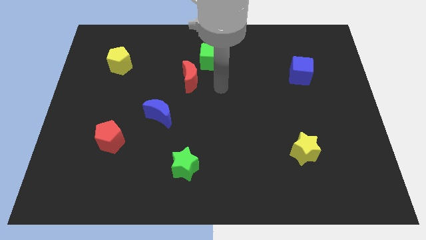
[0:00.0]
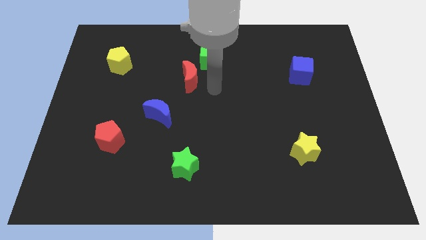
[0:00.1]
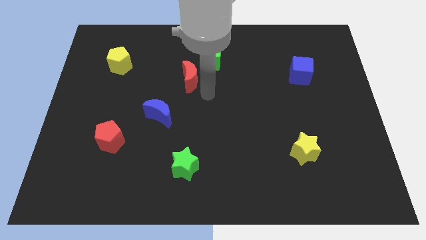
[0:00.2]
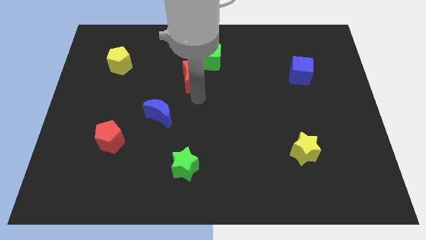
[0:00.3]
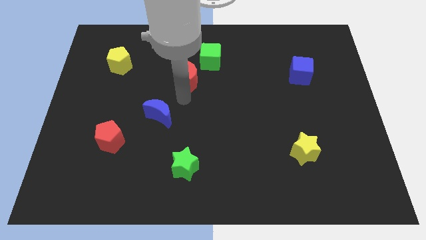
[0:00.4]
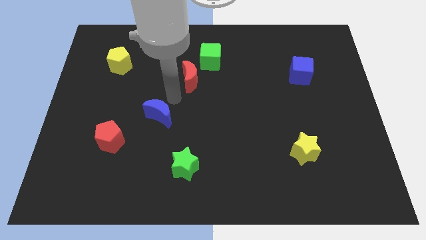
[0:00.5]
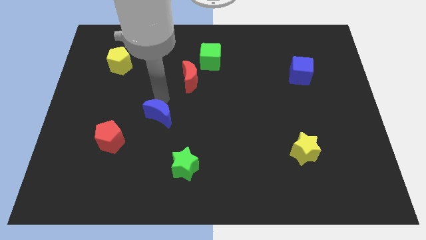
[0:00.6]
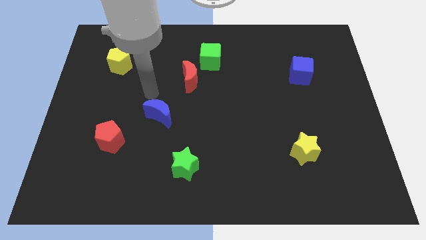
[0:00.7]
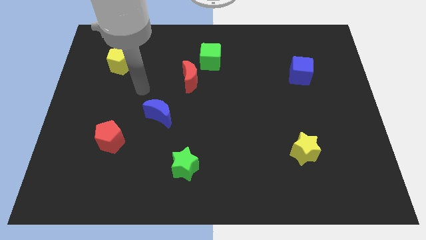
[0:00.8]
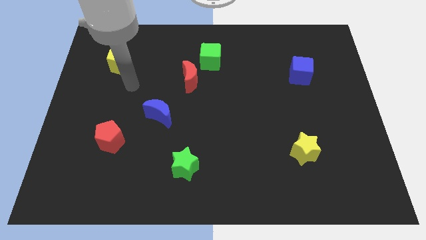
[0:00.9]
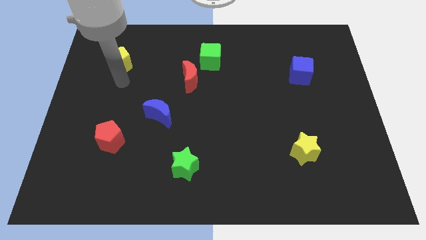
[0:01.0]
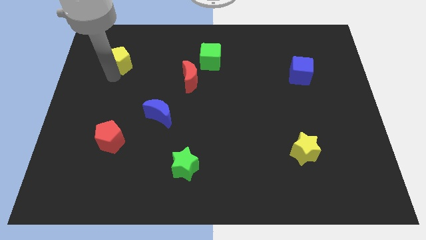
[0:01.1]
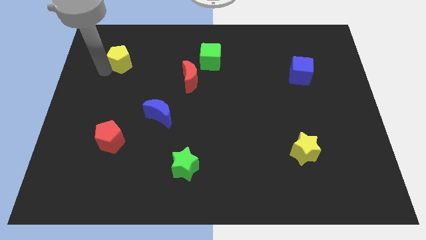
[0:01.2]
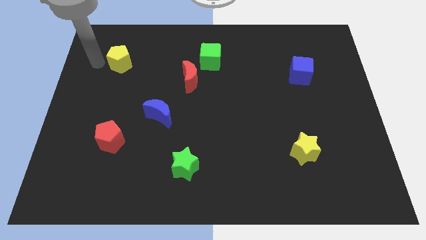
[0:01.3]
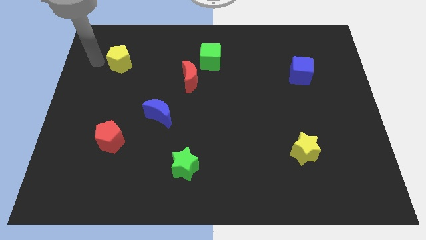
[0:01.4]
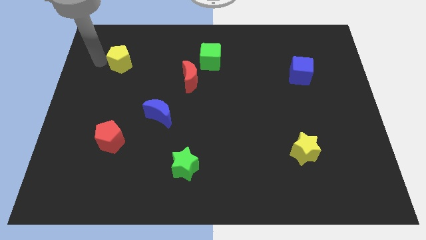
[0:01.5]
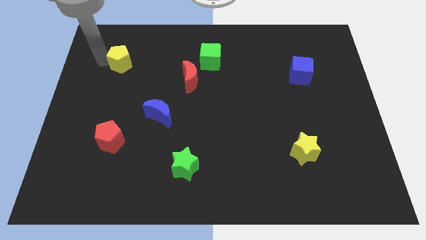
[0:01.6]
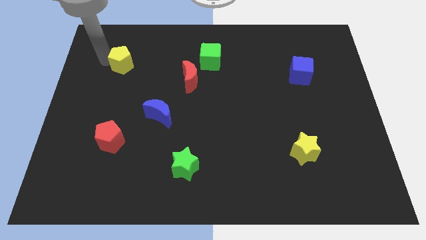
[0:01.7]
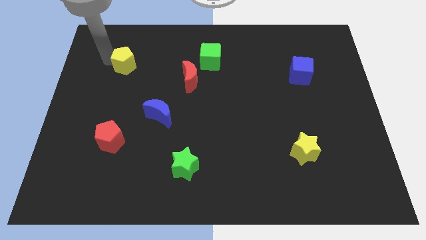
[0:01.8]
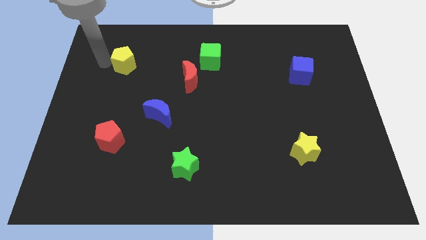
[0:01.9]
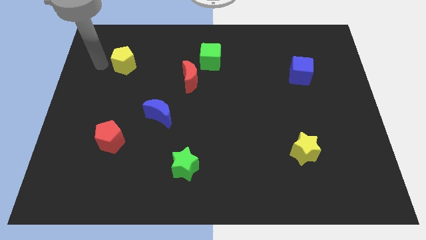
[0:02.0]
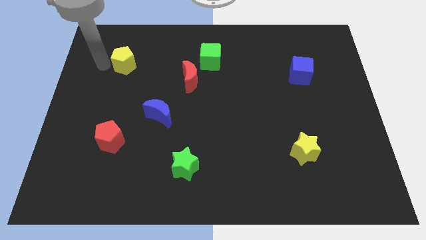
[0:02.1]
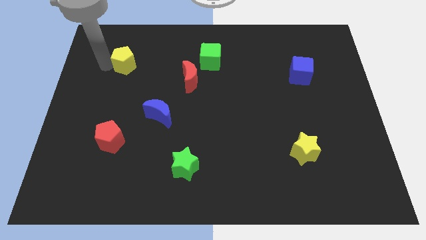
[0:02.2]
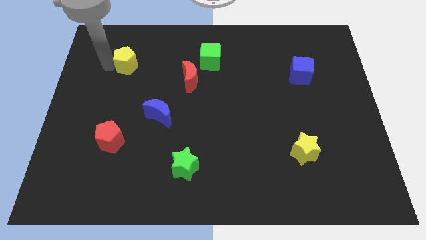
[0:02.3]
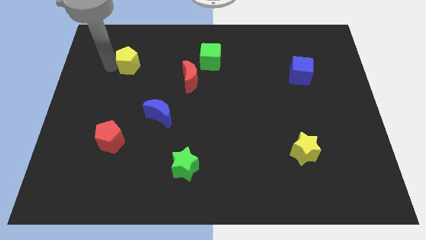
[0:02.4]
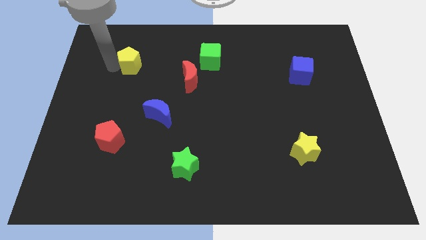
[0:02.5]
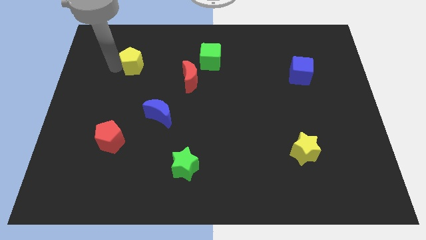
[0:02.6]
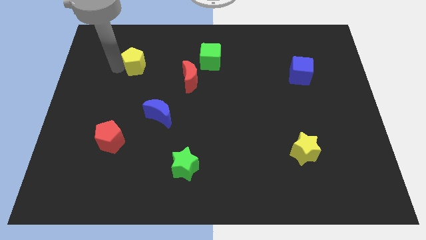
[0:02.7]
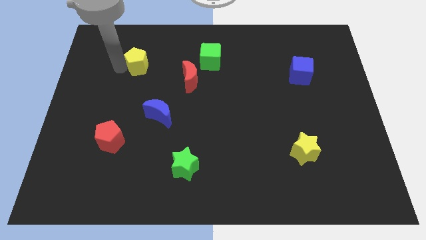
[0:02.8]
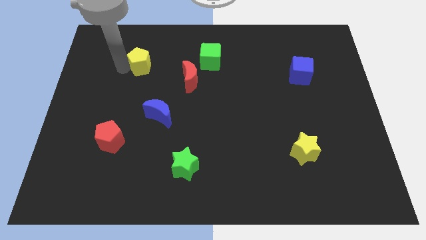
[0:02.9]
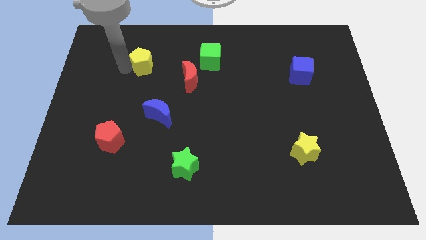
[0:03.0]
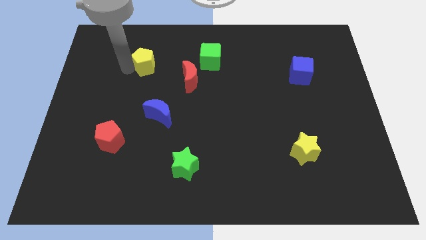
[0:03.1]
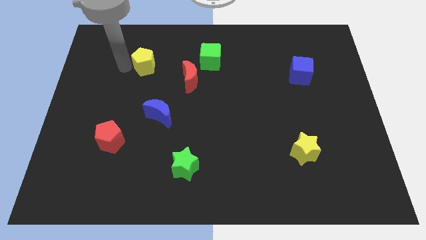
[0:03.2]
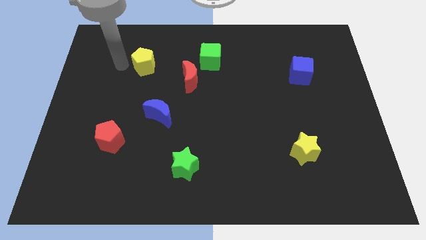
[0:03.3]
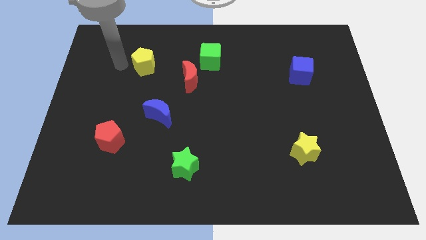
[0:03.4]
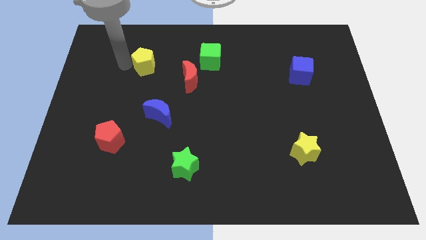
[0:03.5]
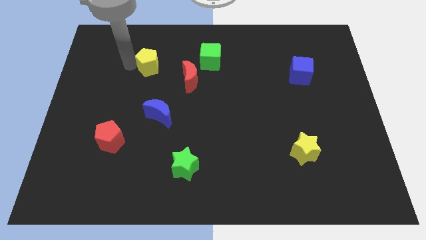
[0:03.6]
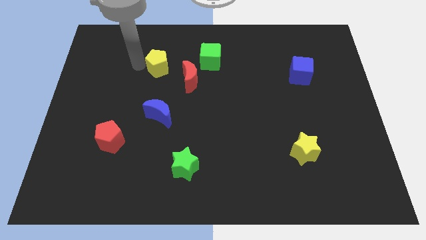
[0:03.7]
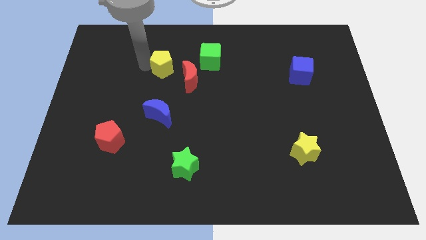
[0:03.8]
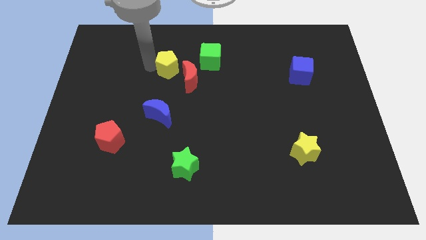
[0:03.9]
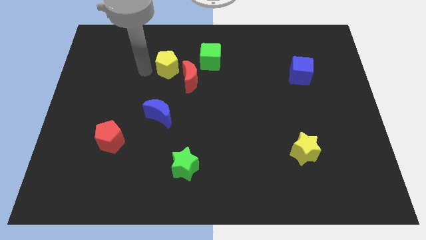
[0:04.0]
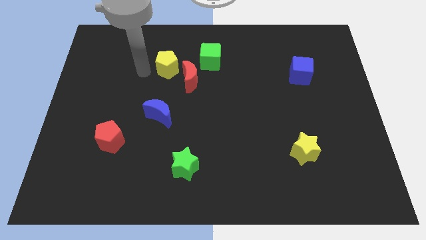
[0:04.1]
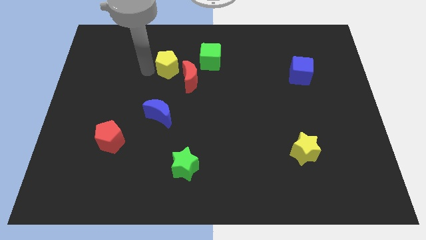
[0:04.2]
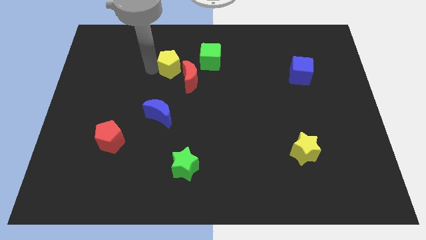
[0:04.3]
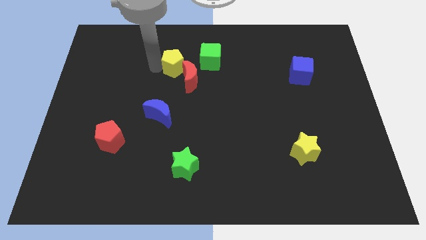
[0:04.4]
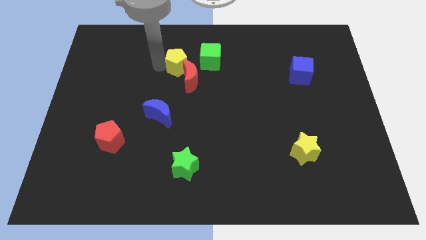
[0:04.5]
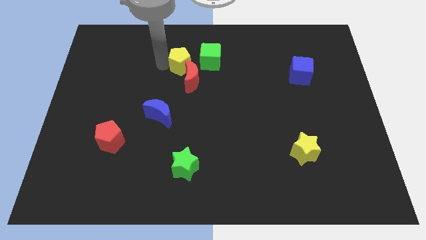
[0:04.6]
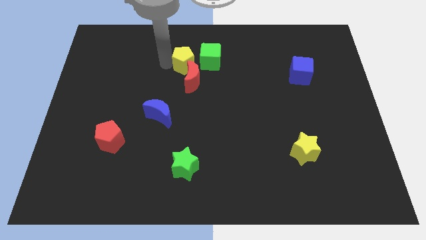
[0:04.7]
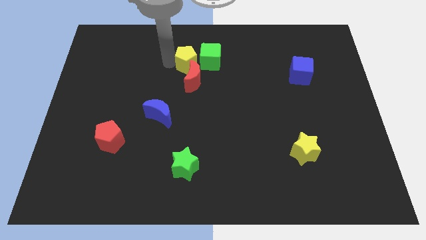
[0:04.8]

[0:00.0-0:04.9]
slide the yellow pentagon to the green cube

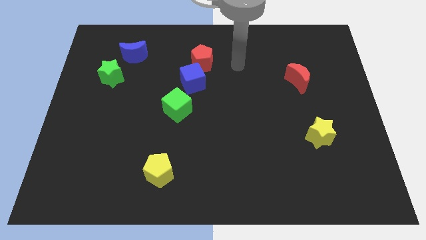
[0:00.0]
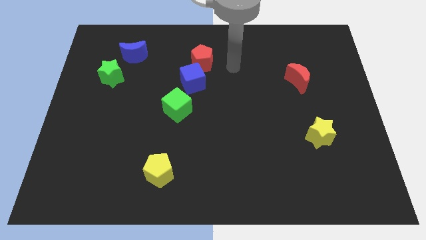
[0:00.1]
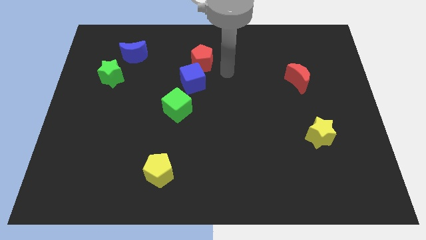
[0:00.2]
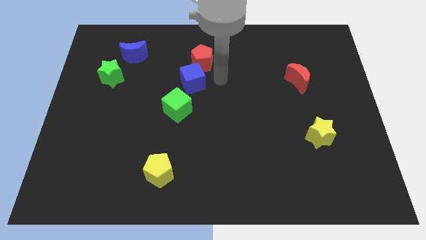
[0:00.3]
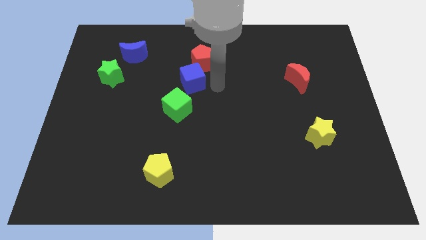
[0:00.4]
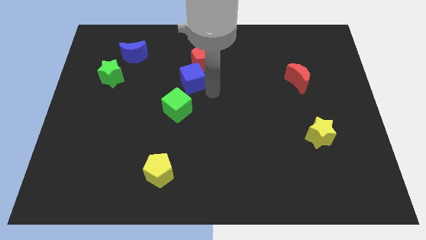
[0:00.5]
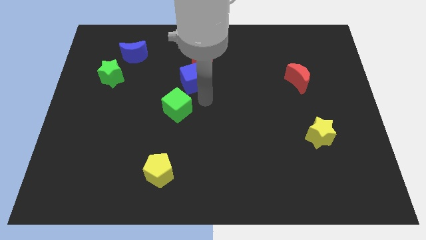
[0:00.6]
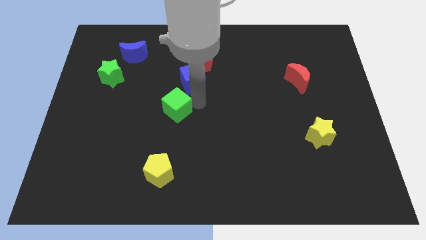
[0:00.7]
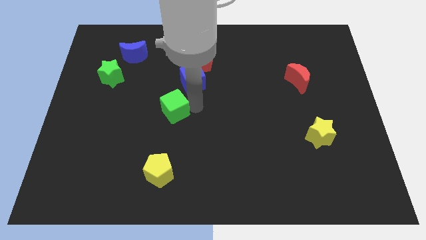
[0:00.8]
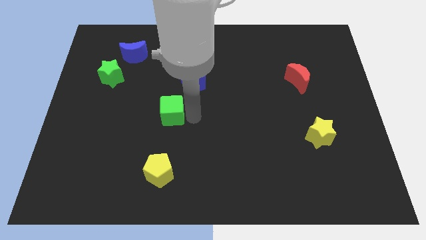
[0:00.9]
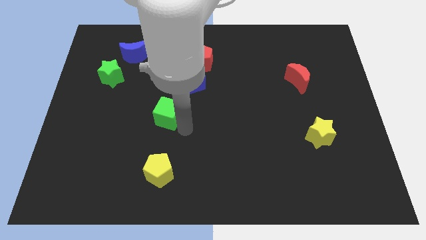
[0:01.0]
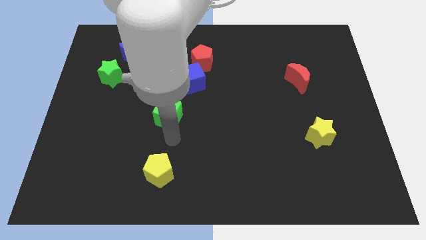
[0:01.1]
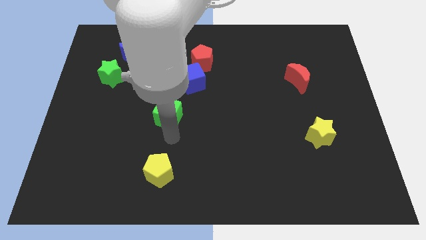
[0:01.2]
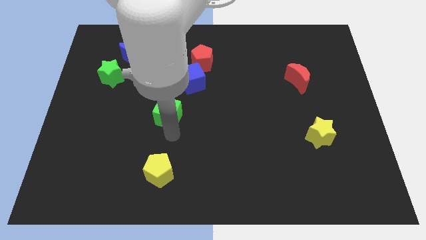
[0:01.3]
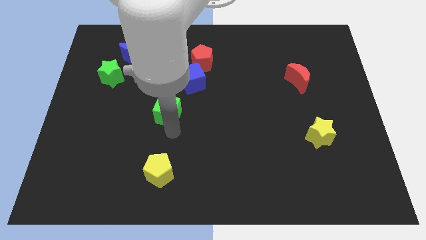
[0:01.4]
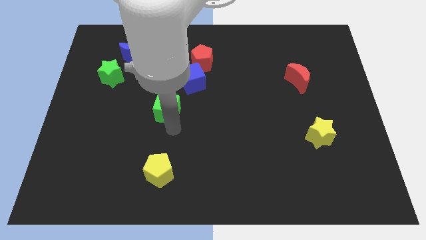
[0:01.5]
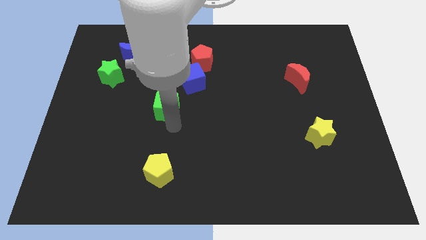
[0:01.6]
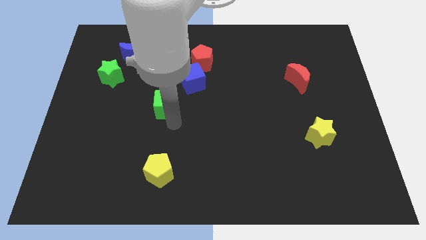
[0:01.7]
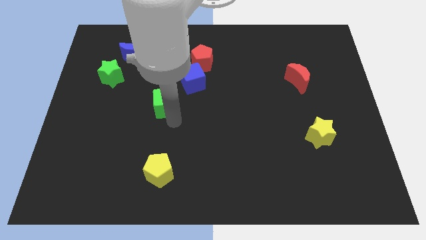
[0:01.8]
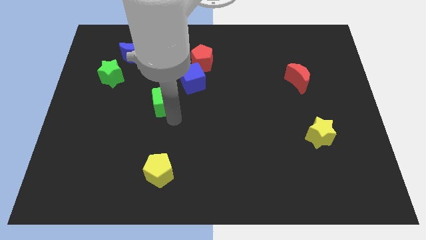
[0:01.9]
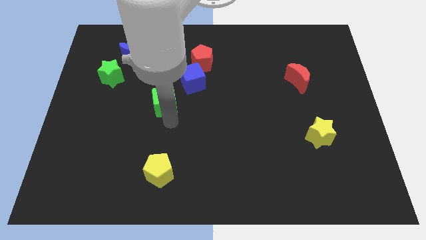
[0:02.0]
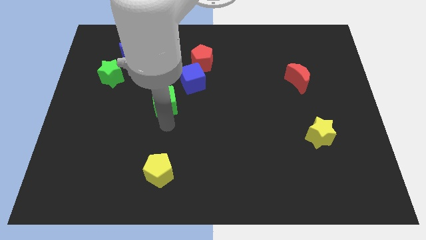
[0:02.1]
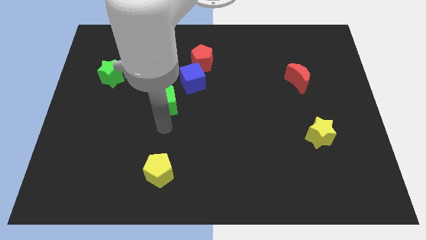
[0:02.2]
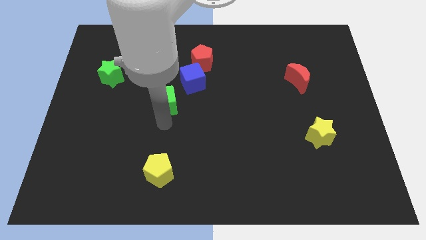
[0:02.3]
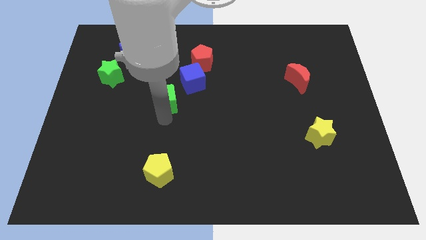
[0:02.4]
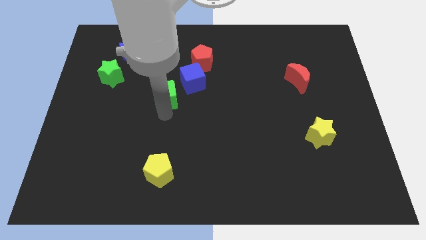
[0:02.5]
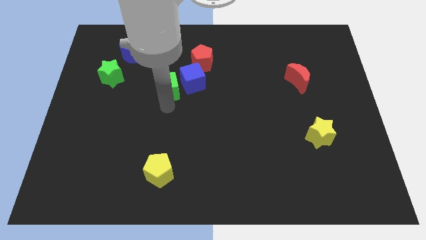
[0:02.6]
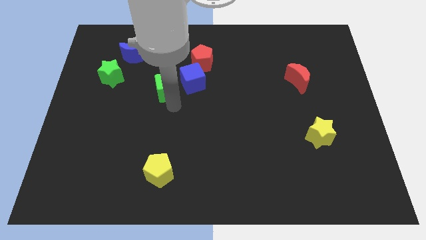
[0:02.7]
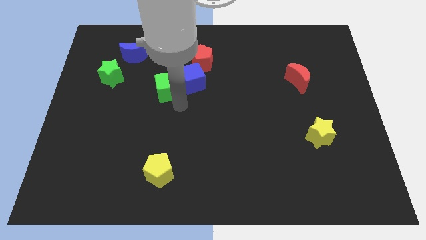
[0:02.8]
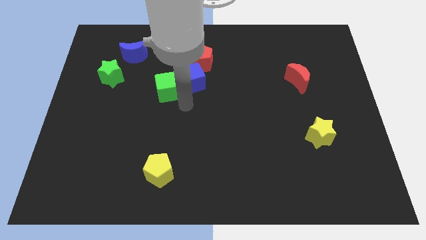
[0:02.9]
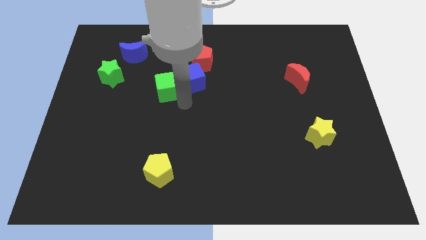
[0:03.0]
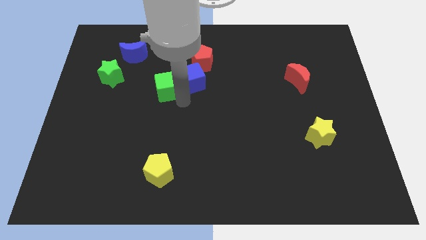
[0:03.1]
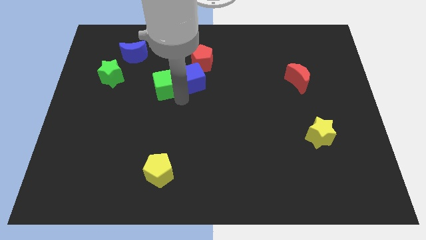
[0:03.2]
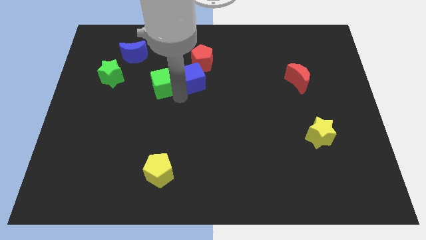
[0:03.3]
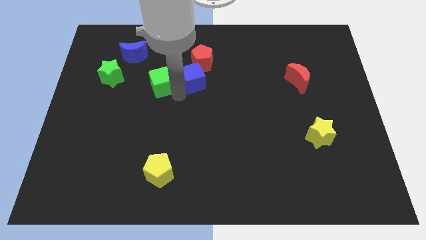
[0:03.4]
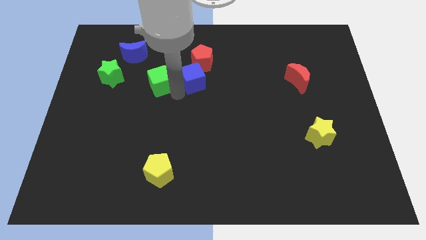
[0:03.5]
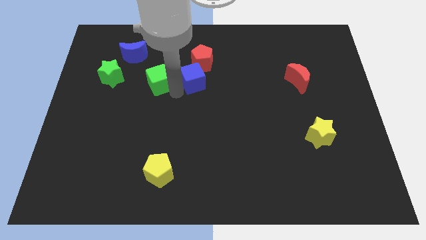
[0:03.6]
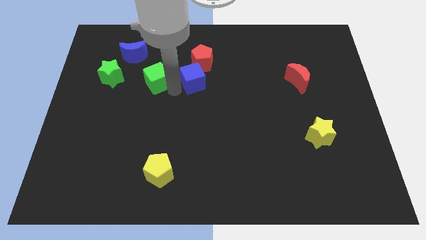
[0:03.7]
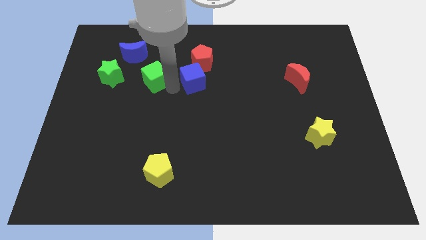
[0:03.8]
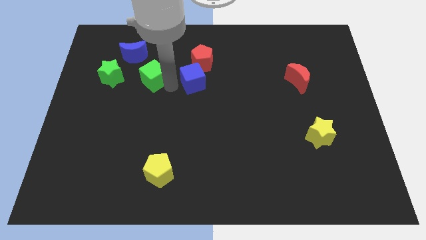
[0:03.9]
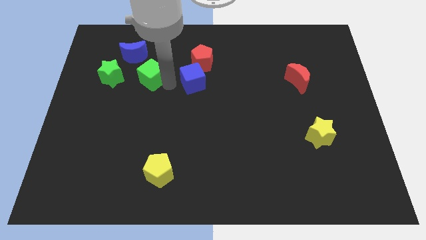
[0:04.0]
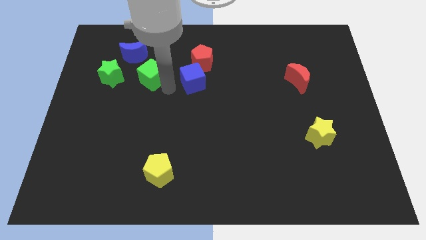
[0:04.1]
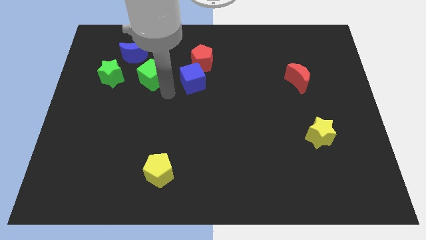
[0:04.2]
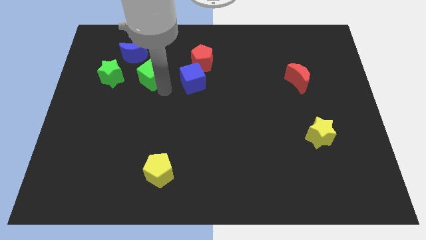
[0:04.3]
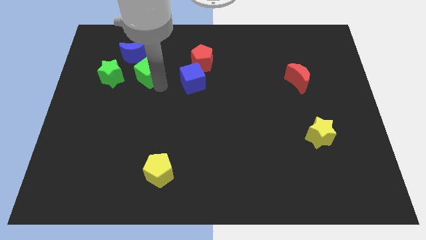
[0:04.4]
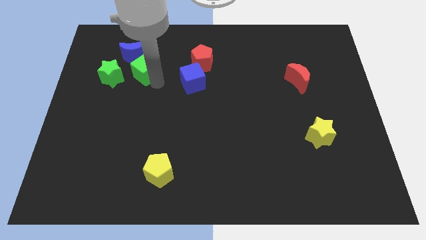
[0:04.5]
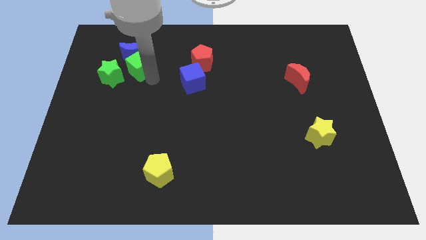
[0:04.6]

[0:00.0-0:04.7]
move the green cube towards the blue moon
